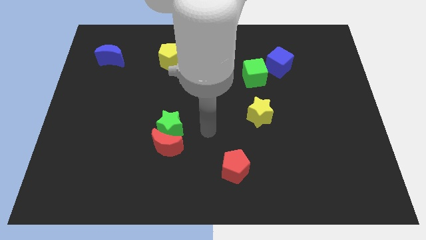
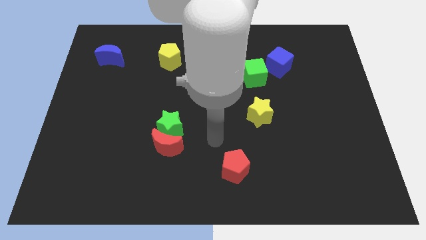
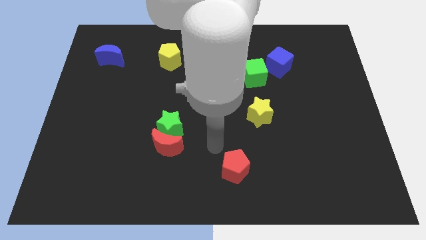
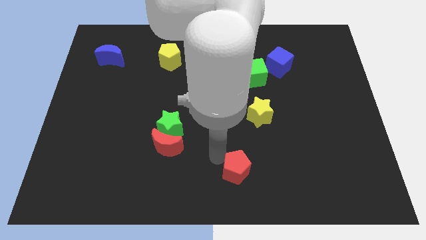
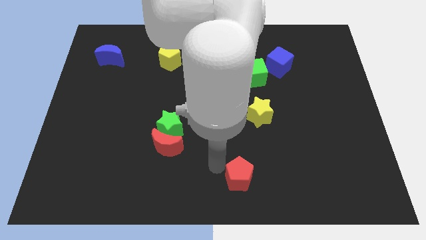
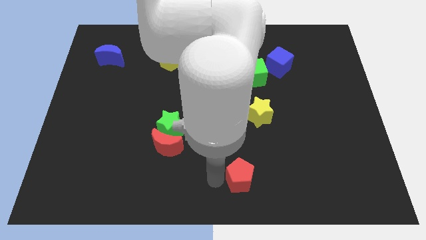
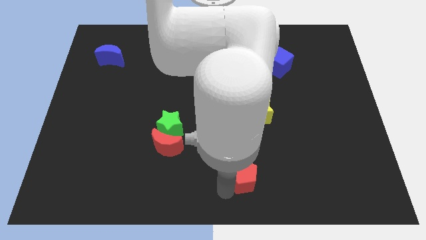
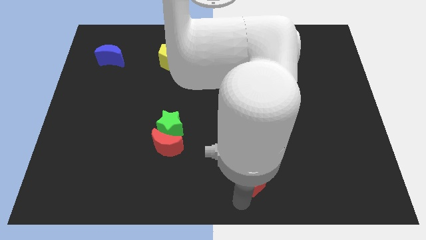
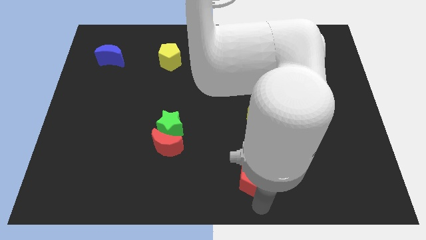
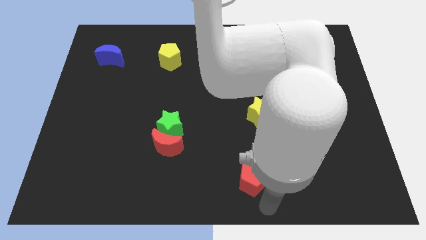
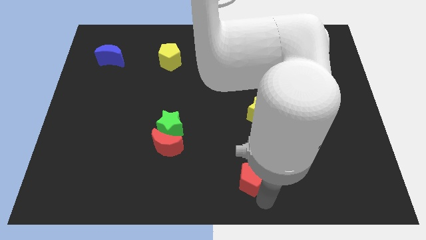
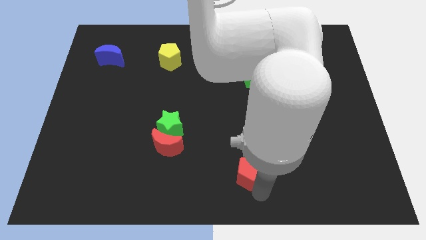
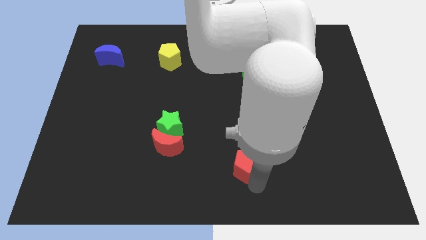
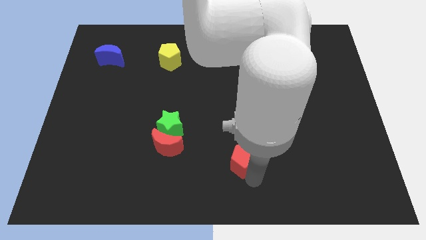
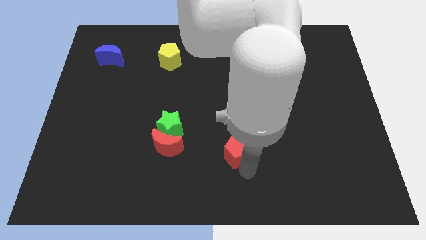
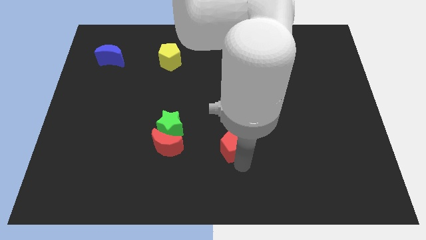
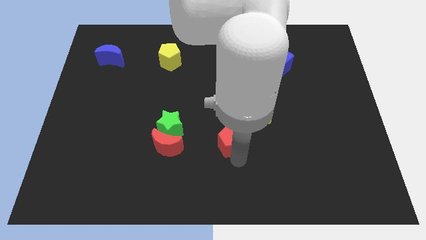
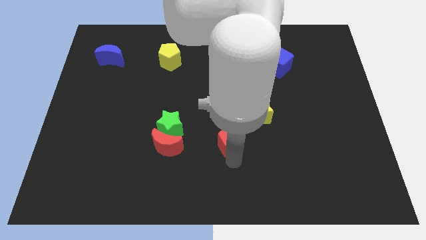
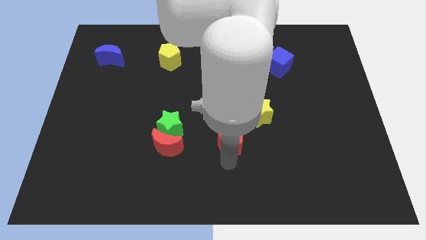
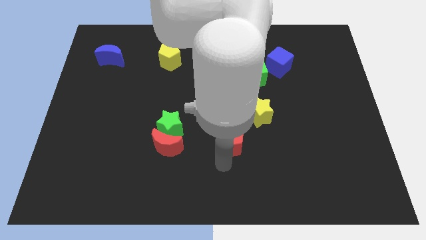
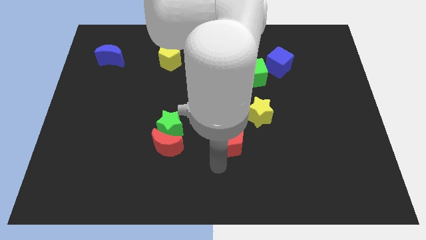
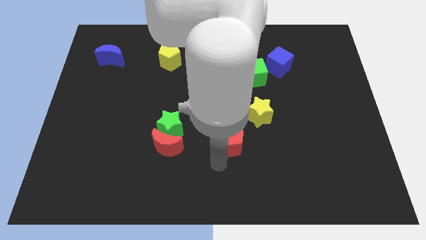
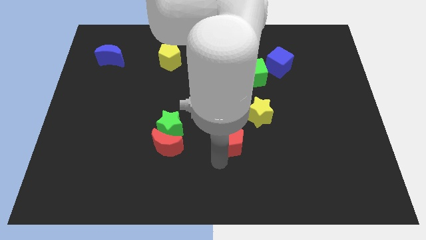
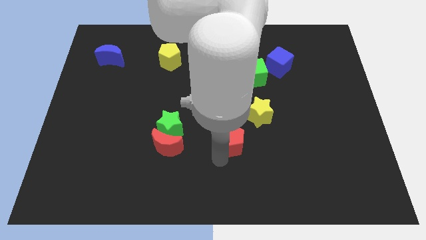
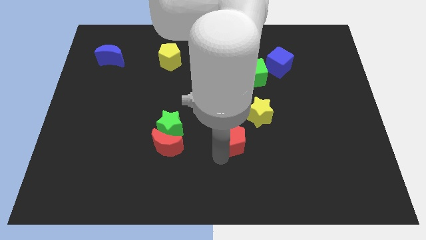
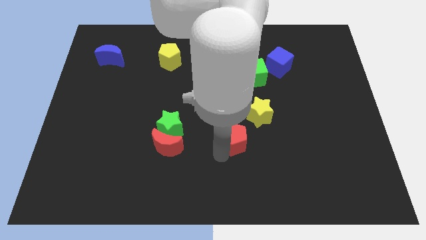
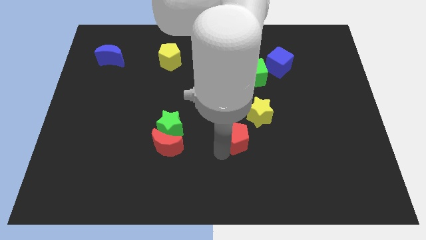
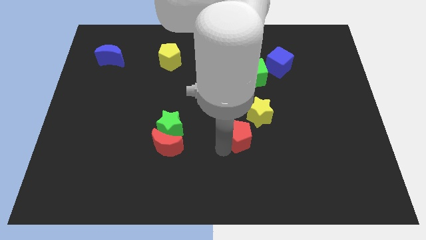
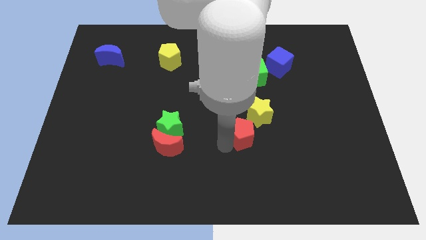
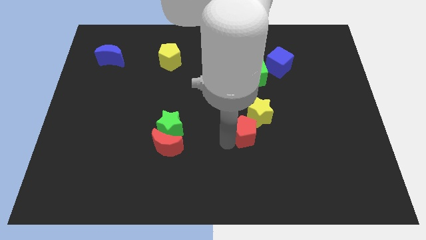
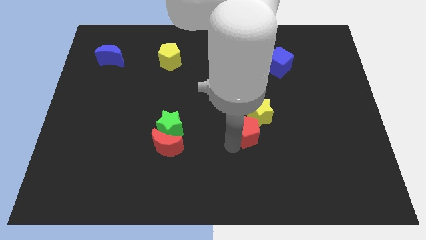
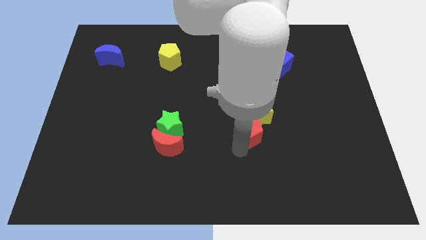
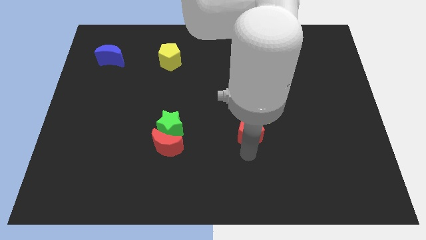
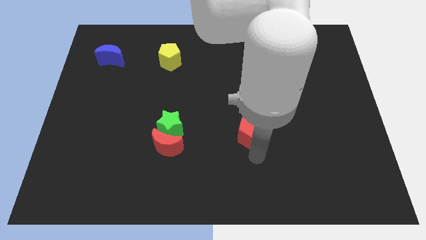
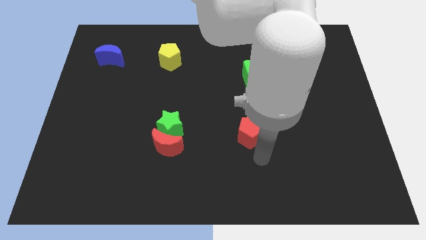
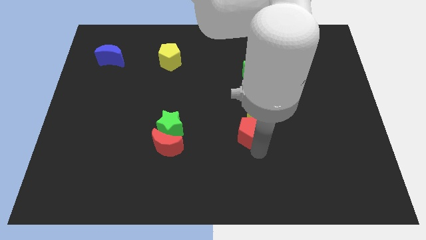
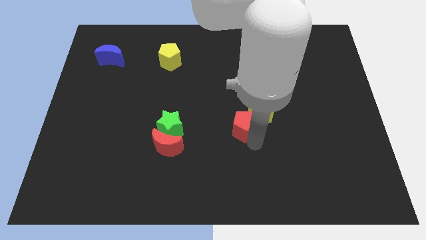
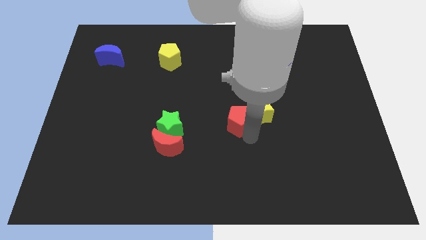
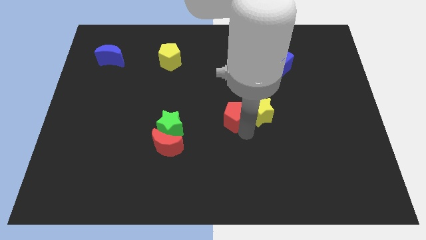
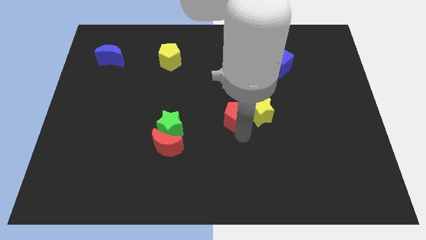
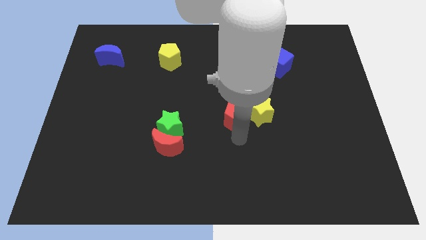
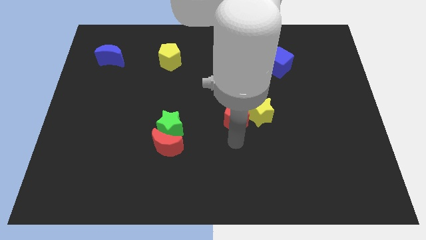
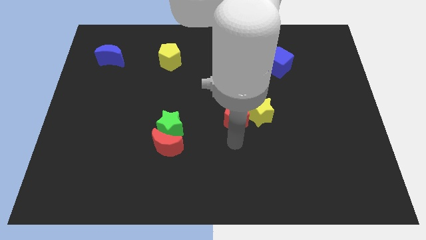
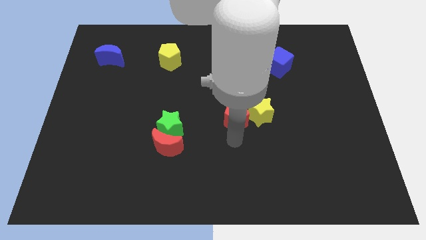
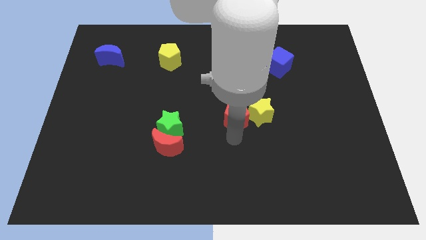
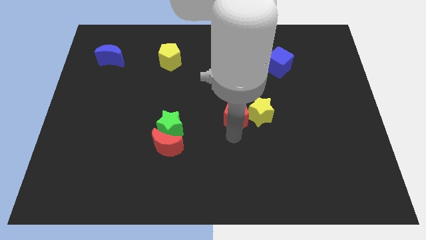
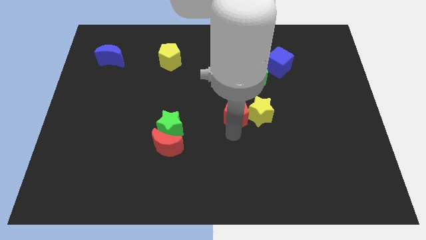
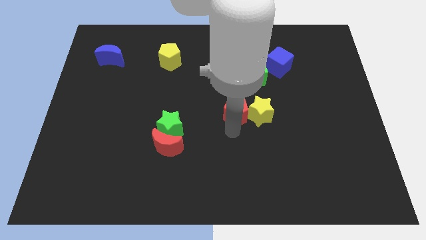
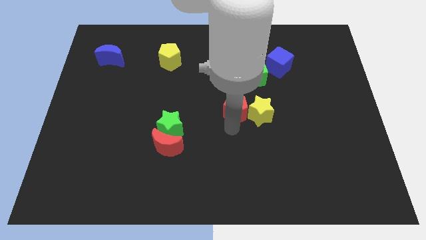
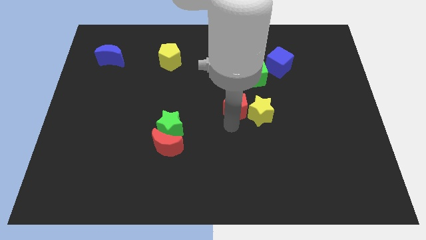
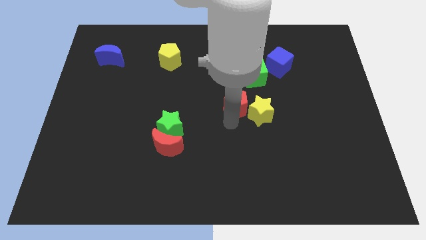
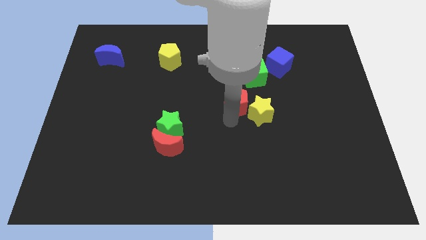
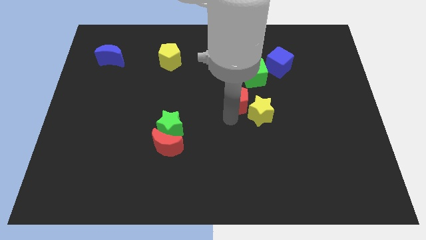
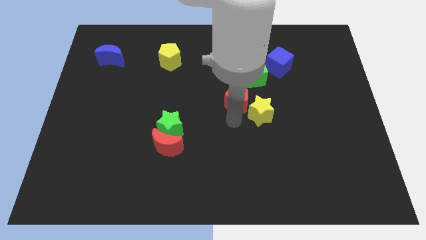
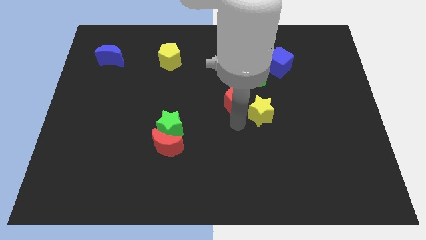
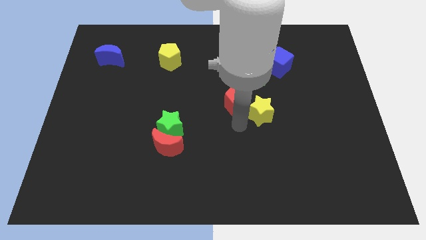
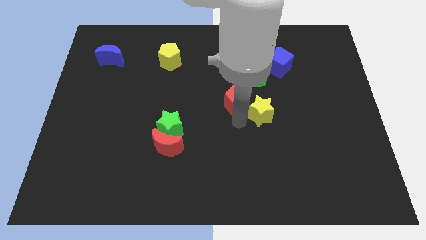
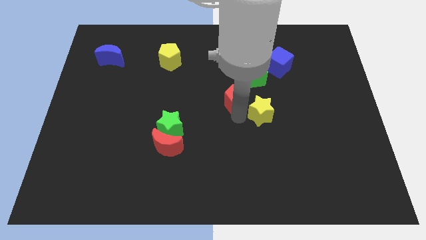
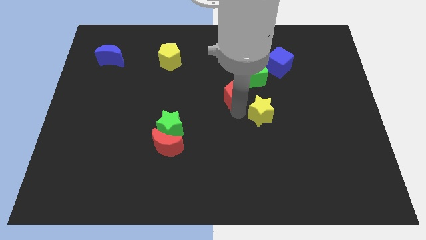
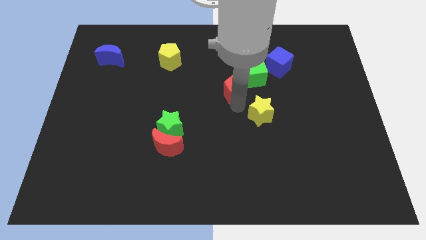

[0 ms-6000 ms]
push the red pentagon up

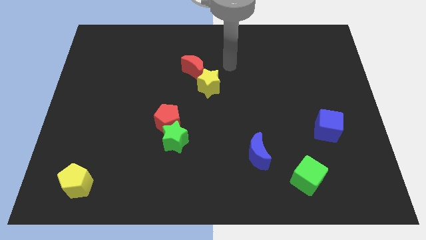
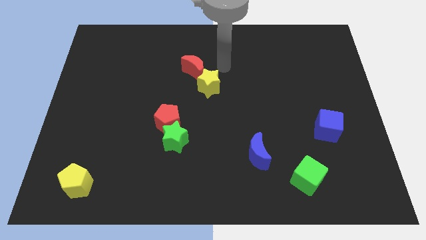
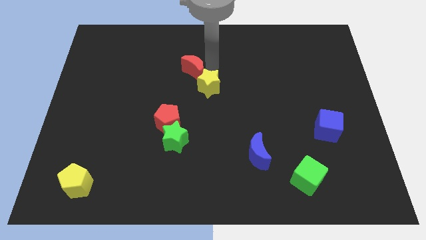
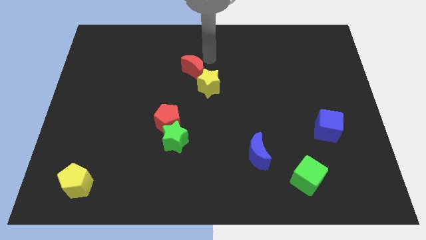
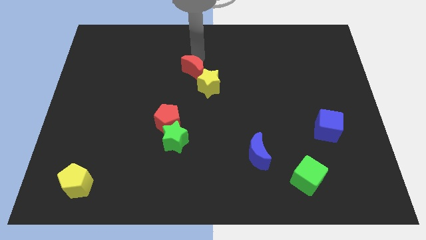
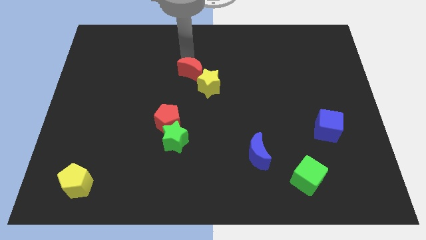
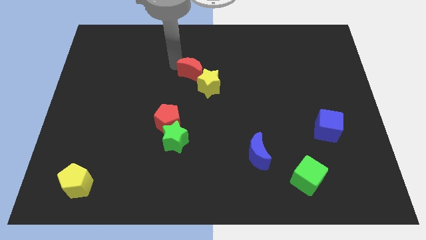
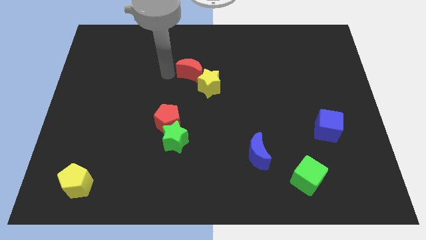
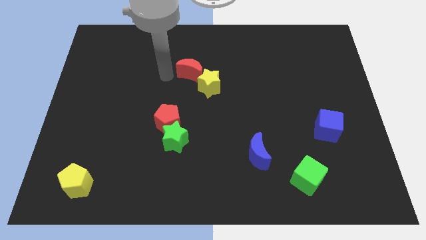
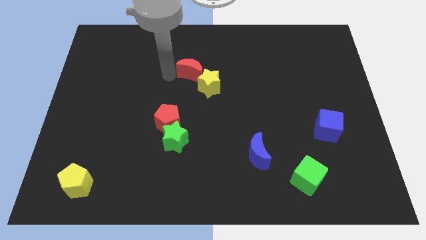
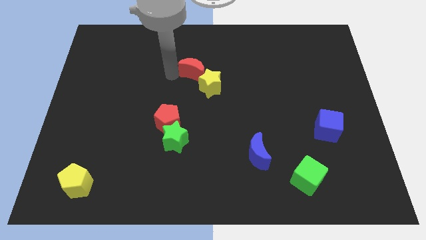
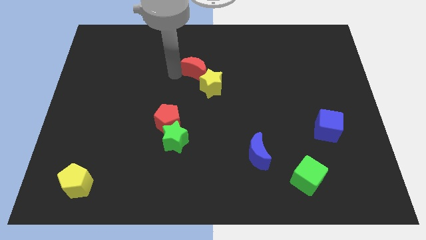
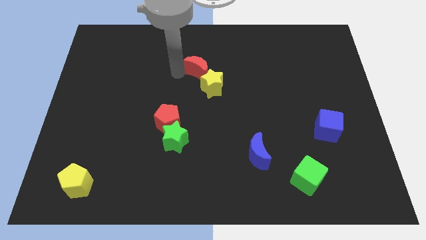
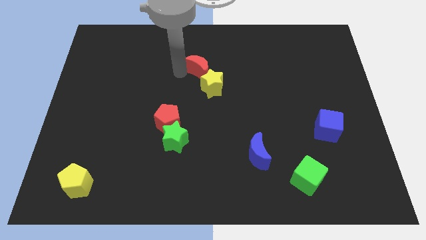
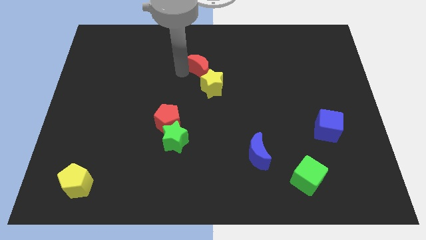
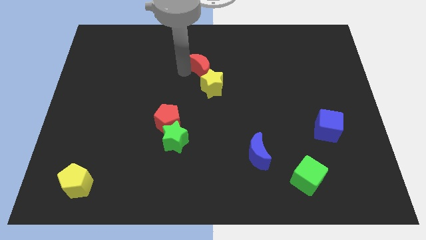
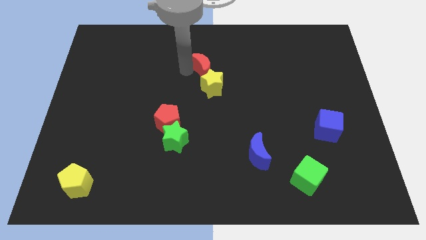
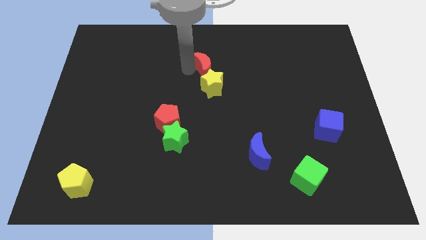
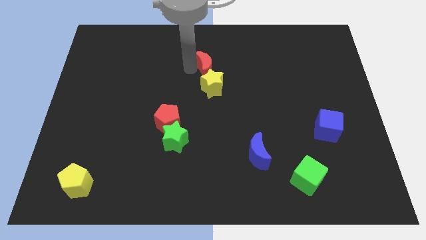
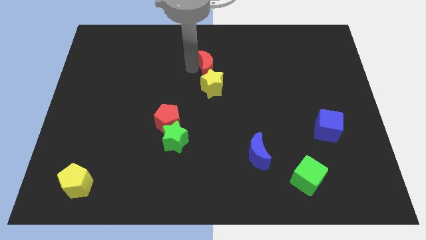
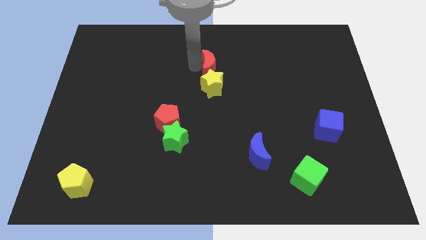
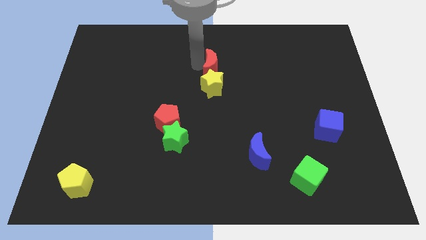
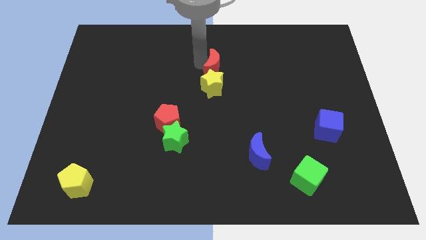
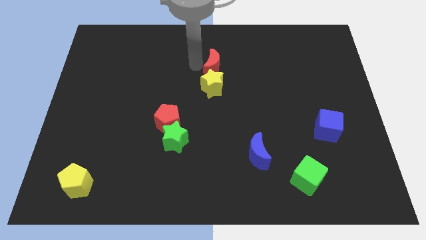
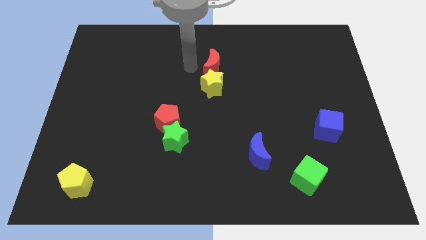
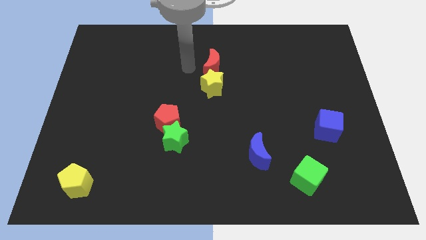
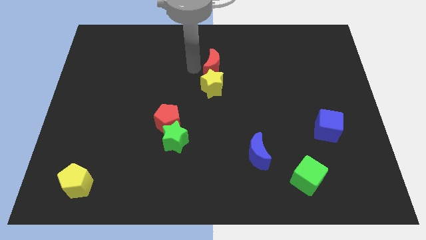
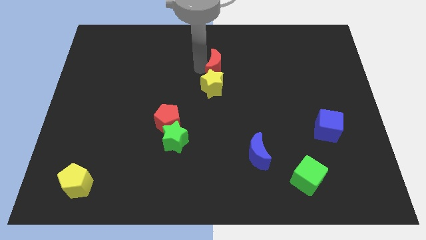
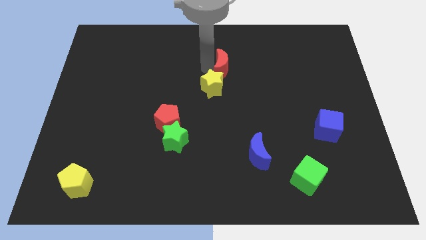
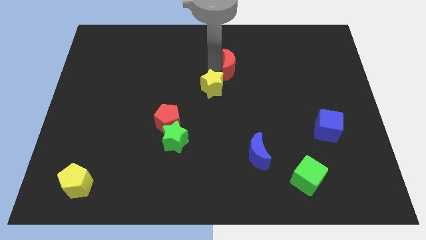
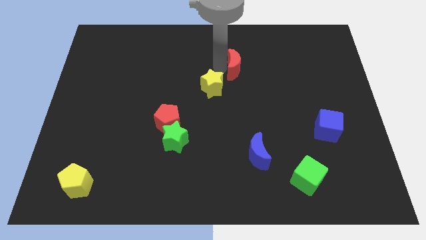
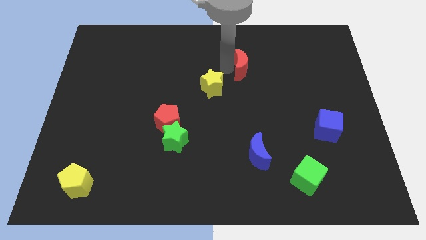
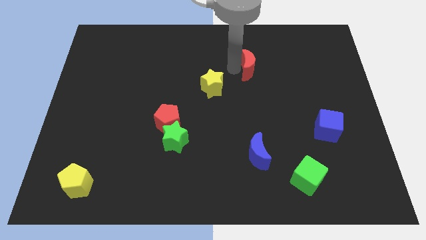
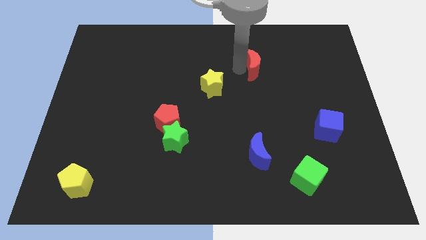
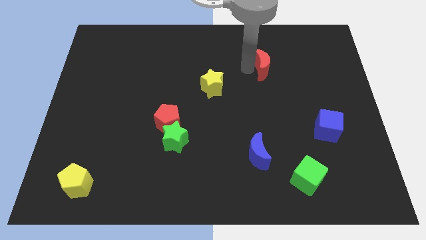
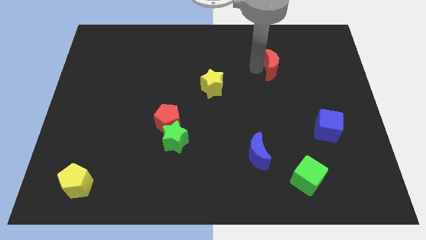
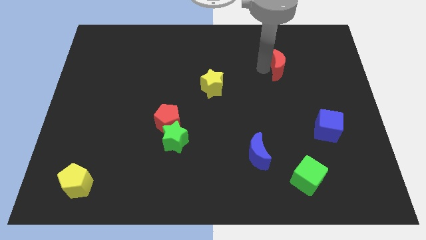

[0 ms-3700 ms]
slide the red moon right
